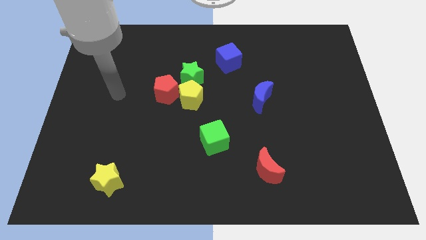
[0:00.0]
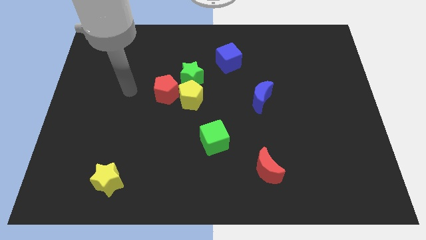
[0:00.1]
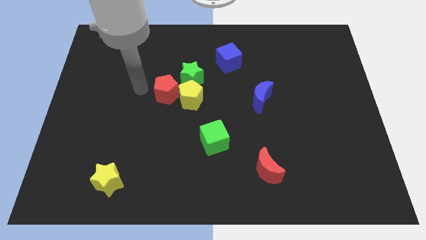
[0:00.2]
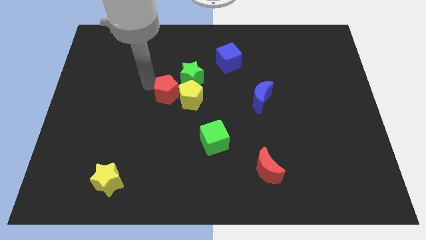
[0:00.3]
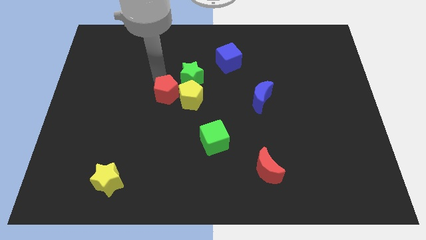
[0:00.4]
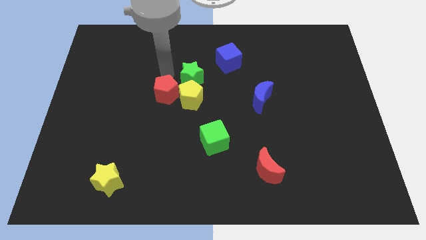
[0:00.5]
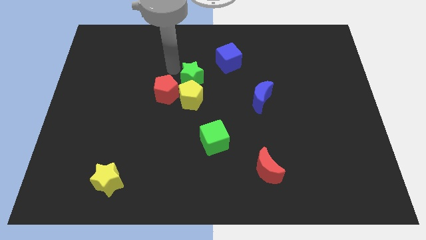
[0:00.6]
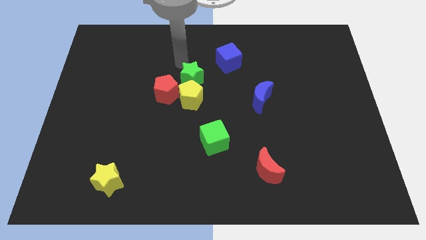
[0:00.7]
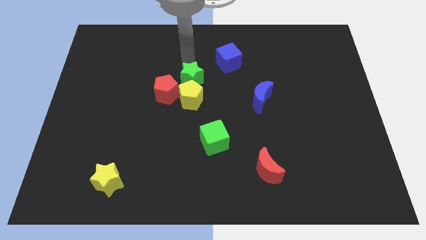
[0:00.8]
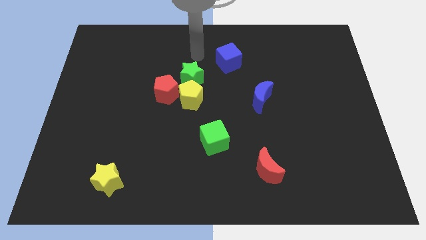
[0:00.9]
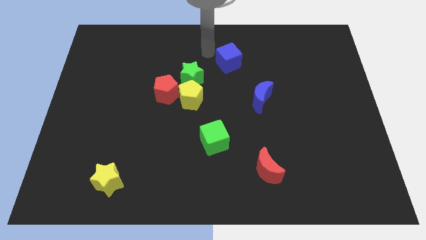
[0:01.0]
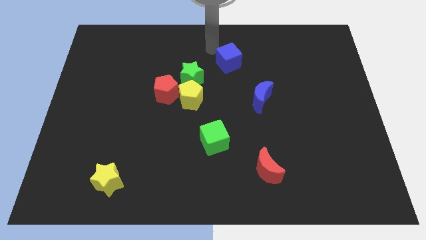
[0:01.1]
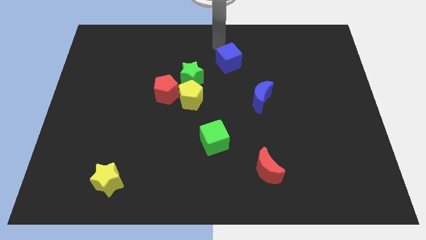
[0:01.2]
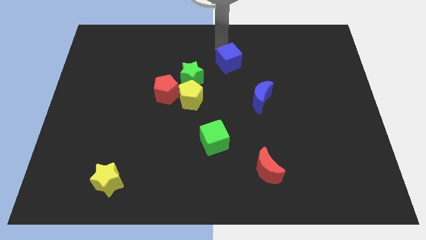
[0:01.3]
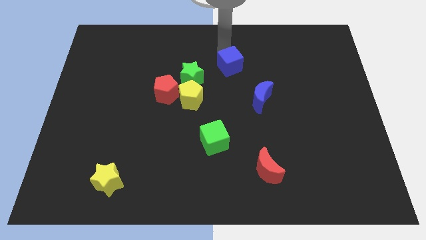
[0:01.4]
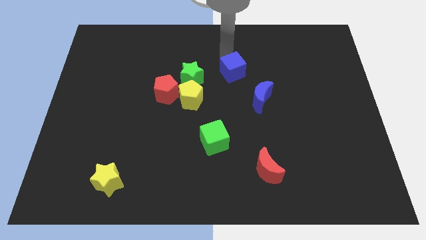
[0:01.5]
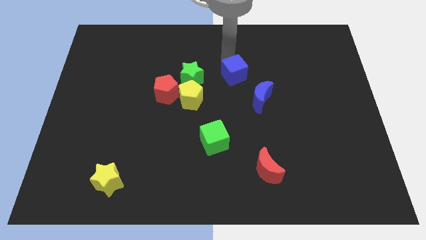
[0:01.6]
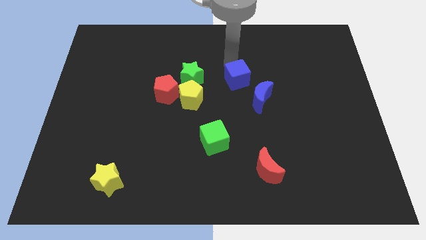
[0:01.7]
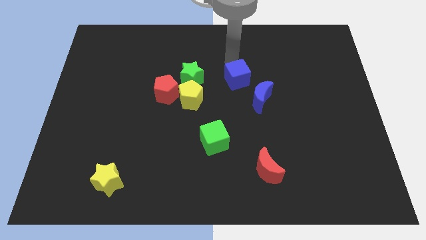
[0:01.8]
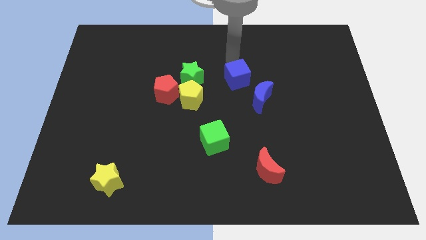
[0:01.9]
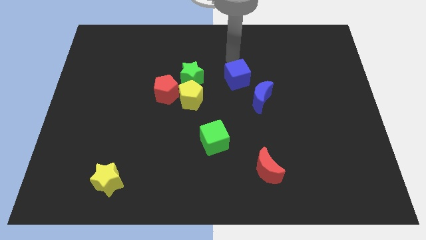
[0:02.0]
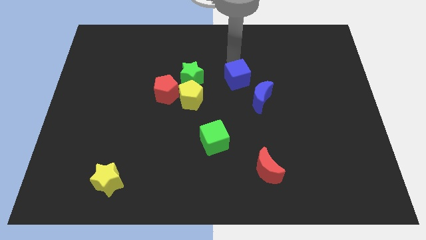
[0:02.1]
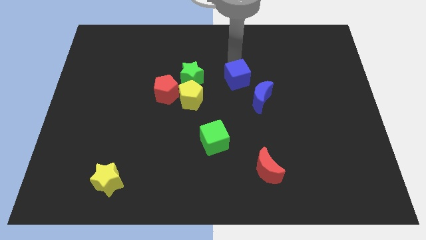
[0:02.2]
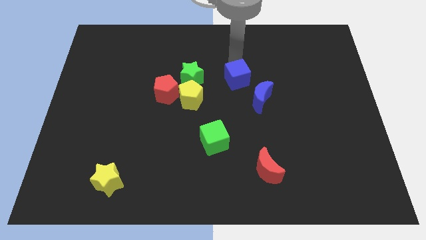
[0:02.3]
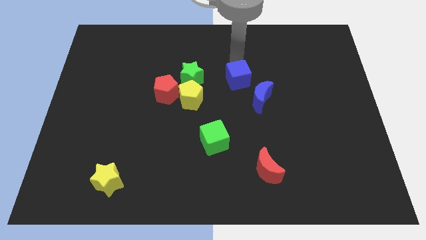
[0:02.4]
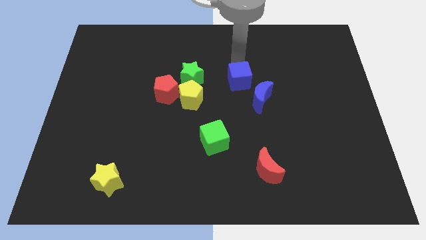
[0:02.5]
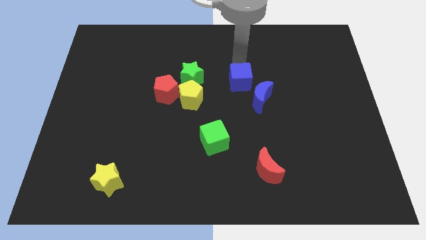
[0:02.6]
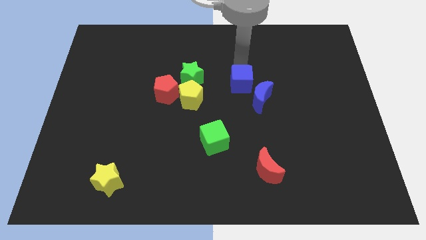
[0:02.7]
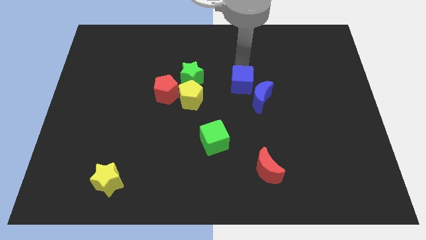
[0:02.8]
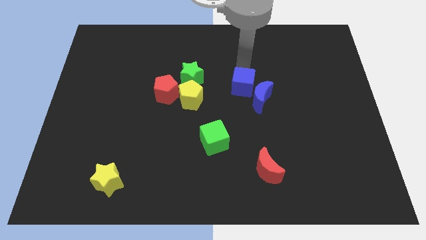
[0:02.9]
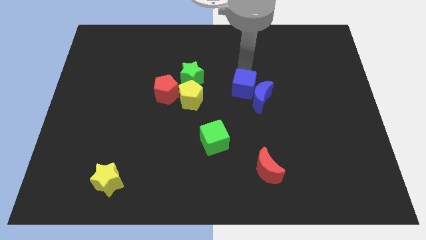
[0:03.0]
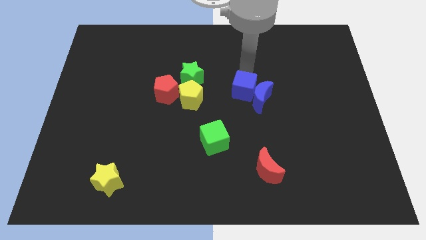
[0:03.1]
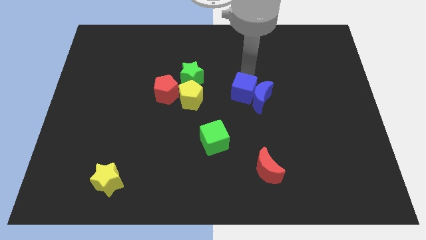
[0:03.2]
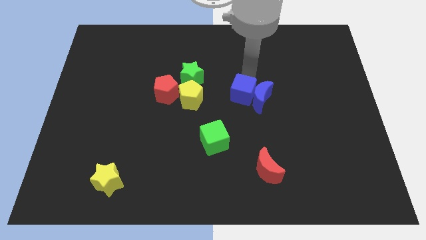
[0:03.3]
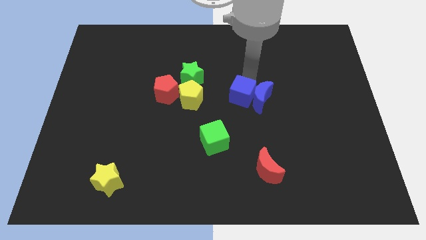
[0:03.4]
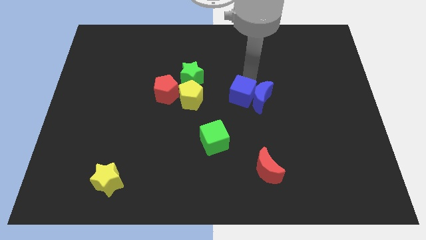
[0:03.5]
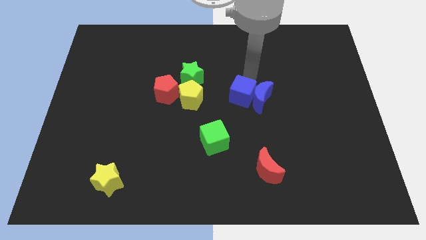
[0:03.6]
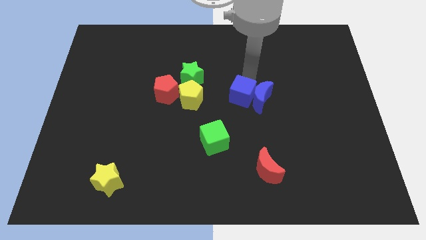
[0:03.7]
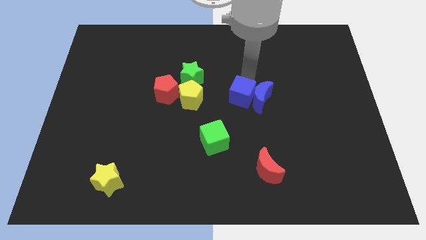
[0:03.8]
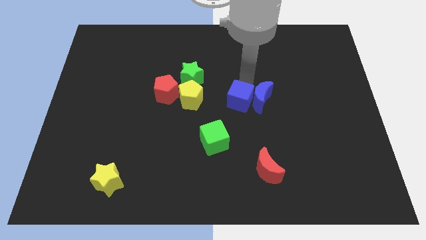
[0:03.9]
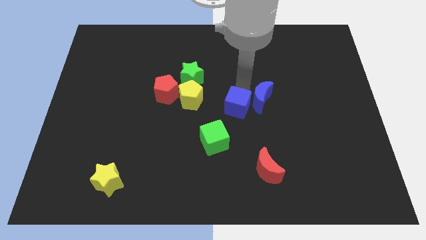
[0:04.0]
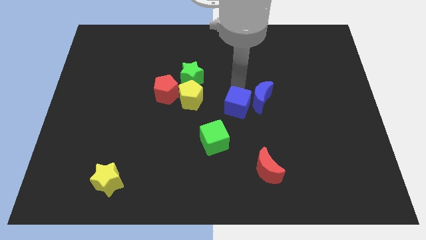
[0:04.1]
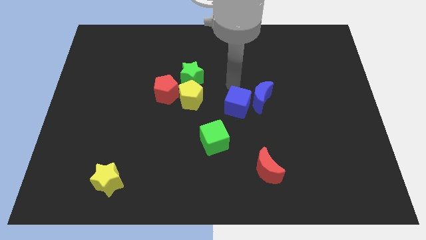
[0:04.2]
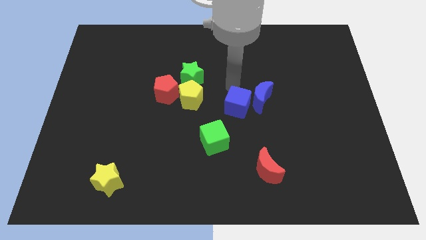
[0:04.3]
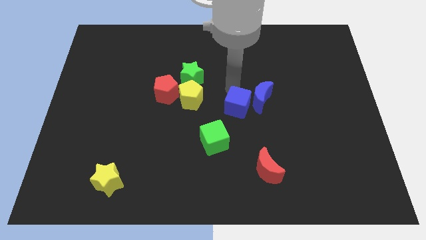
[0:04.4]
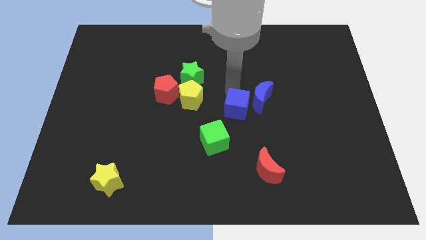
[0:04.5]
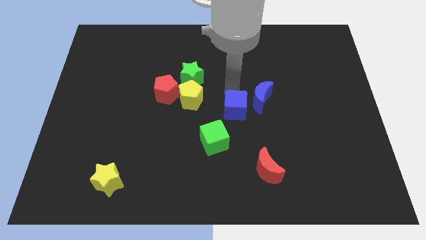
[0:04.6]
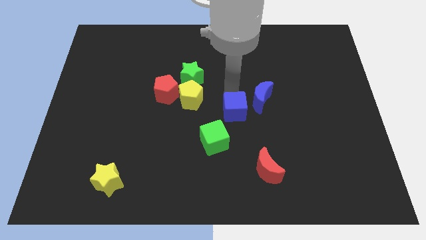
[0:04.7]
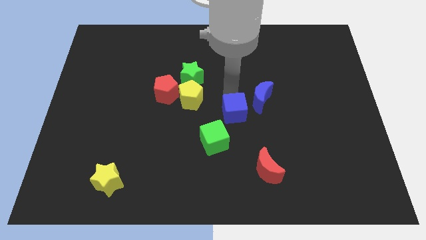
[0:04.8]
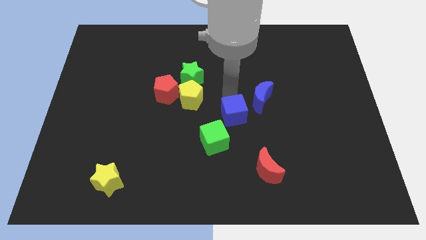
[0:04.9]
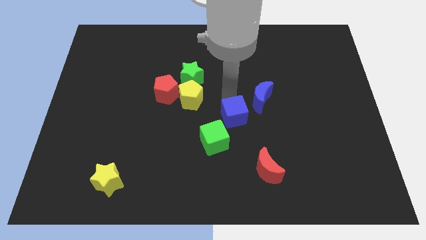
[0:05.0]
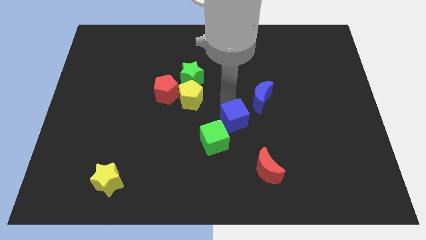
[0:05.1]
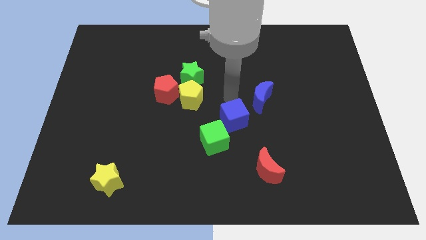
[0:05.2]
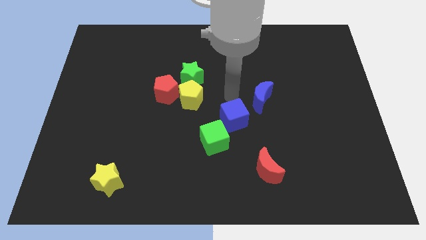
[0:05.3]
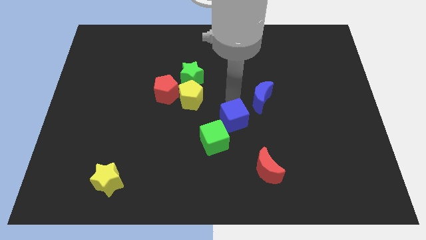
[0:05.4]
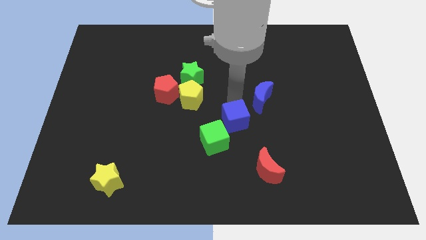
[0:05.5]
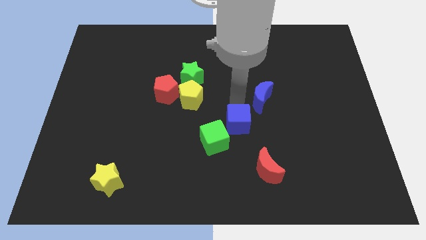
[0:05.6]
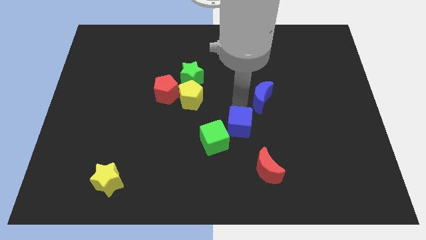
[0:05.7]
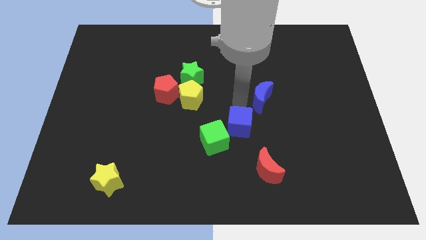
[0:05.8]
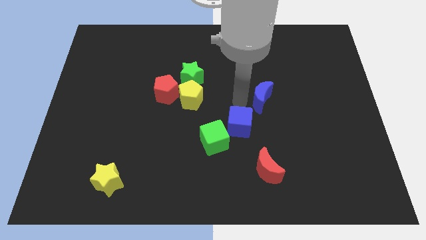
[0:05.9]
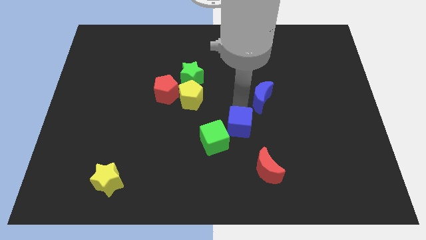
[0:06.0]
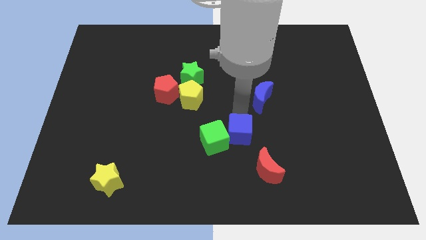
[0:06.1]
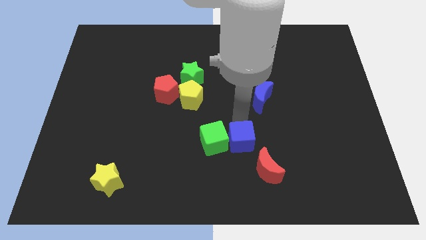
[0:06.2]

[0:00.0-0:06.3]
slide the blue cube to the bottom right of the green cube

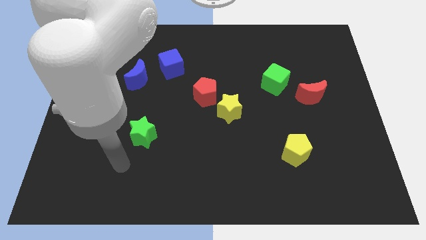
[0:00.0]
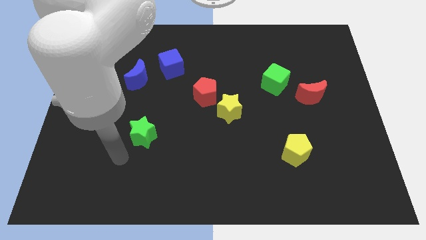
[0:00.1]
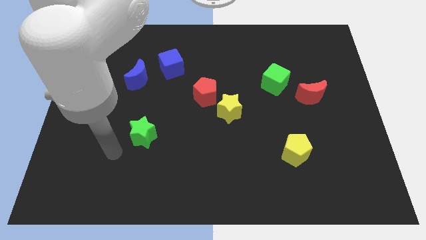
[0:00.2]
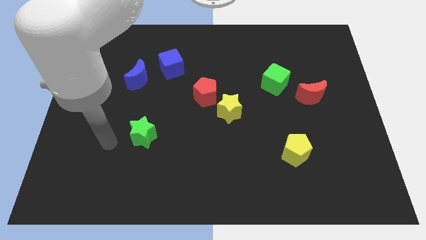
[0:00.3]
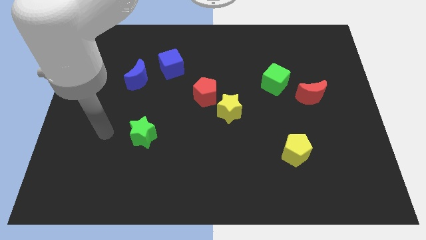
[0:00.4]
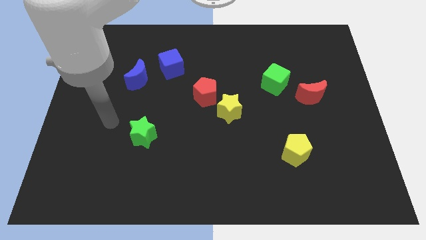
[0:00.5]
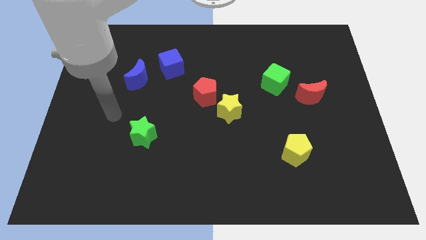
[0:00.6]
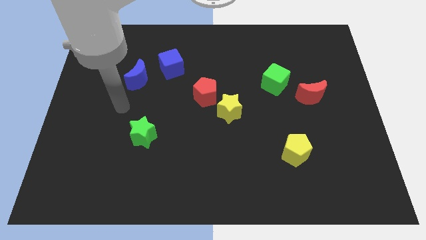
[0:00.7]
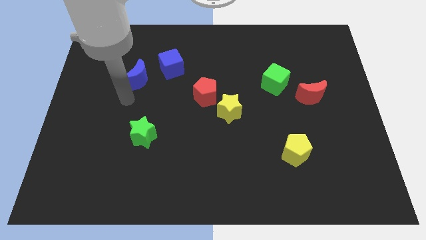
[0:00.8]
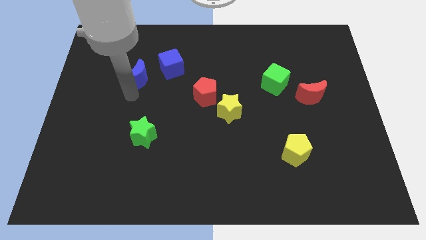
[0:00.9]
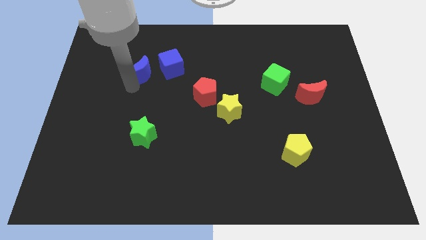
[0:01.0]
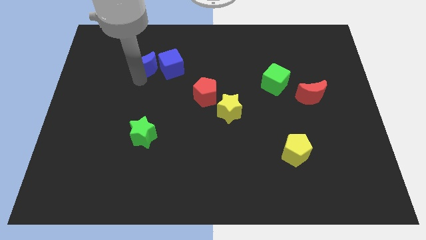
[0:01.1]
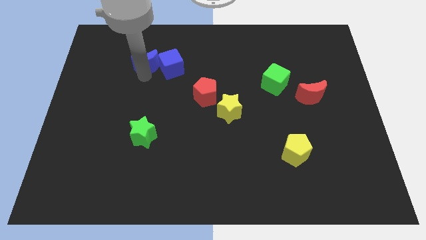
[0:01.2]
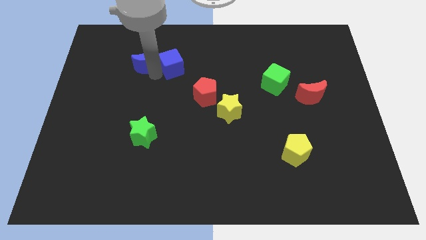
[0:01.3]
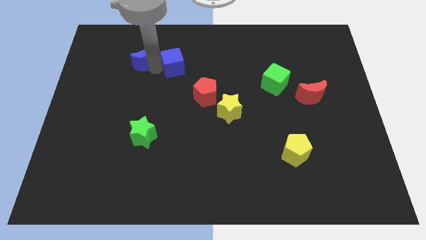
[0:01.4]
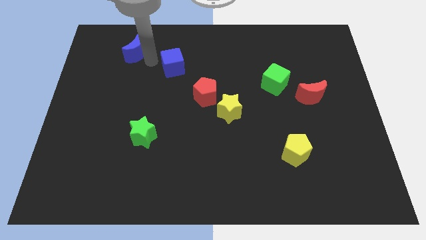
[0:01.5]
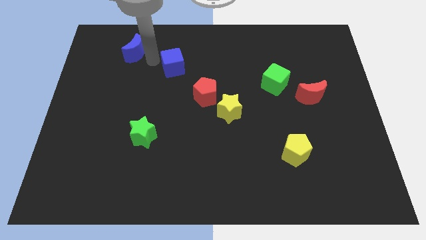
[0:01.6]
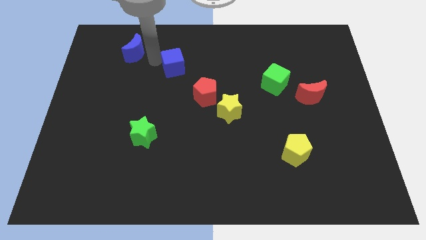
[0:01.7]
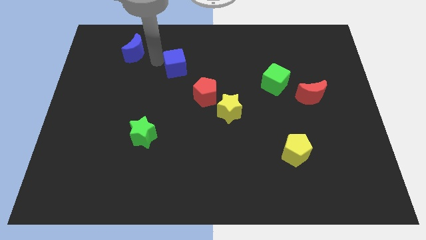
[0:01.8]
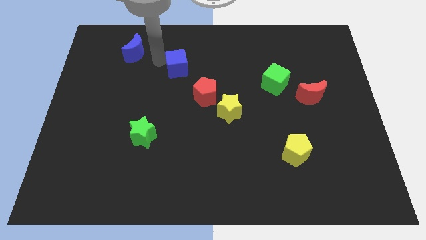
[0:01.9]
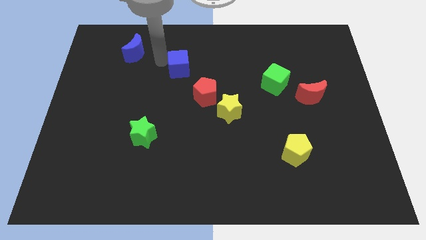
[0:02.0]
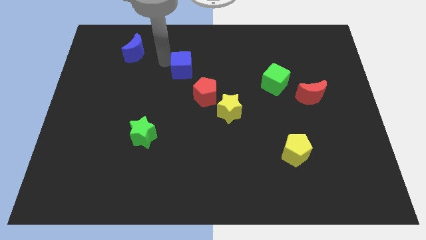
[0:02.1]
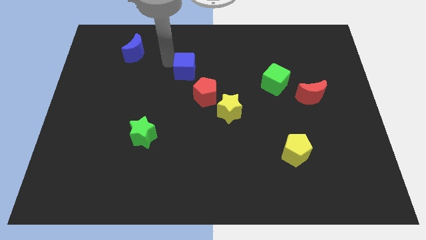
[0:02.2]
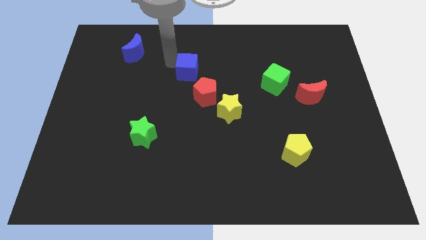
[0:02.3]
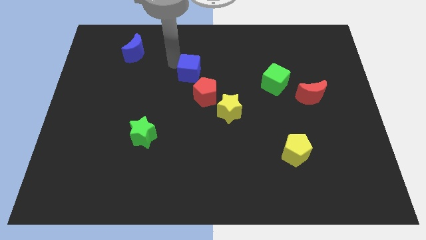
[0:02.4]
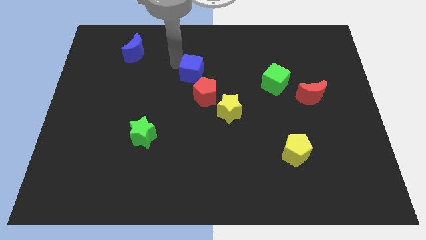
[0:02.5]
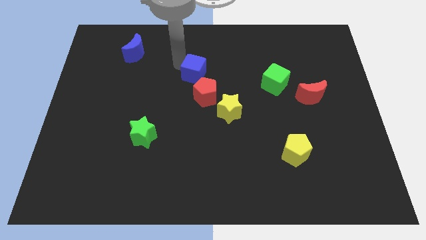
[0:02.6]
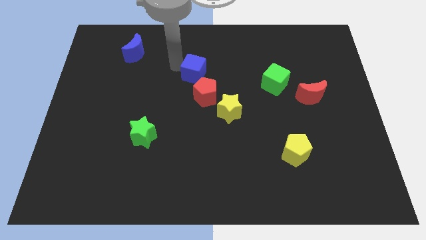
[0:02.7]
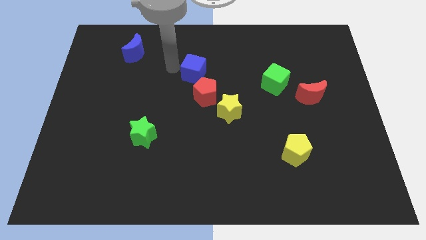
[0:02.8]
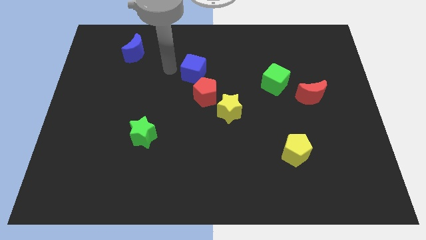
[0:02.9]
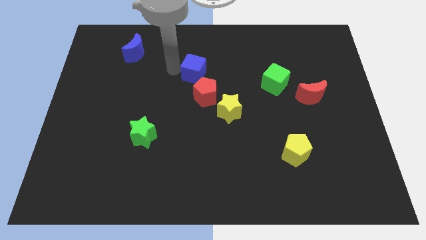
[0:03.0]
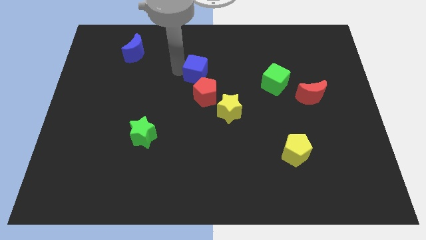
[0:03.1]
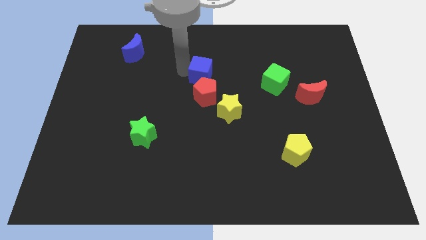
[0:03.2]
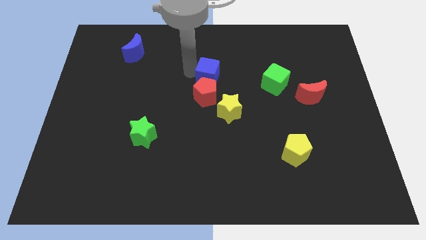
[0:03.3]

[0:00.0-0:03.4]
move the blue cube to the top side of the yellow star
